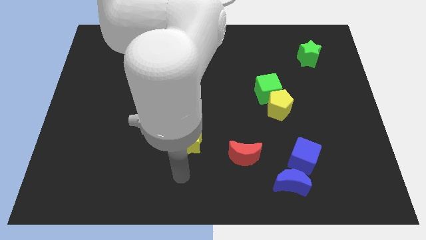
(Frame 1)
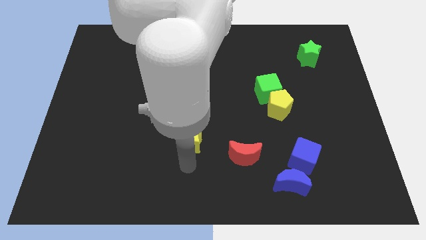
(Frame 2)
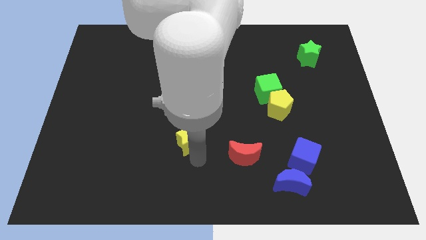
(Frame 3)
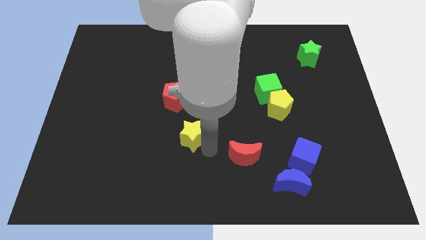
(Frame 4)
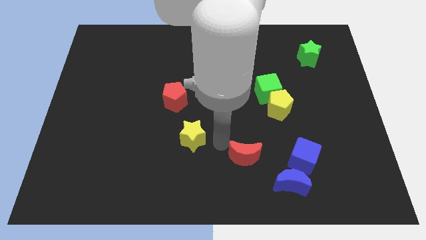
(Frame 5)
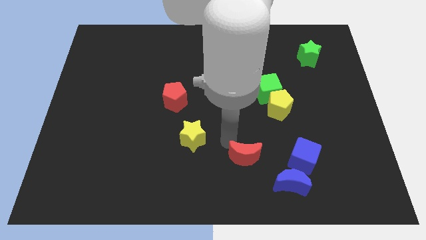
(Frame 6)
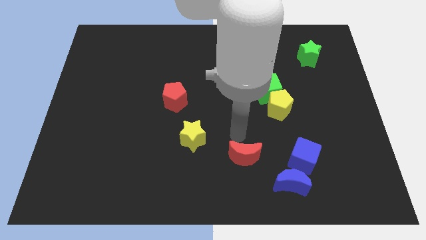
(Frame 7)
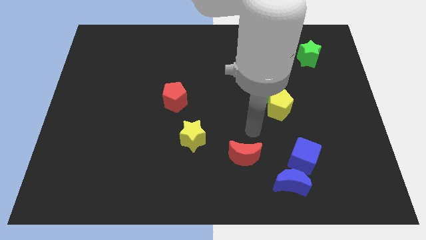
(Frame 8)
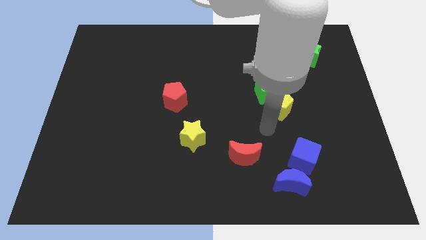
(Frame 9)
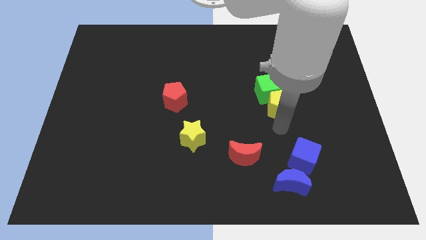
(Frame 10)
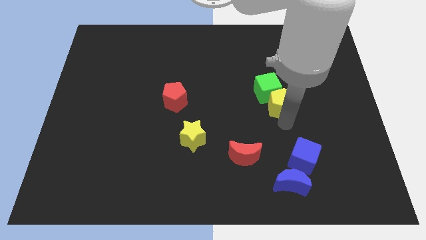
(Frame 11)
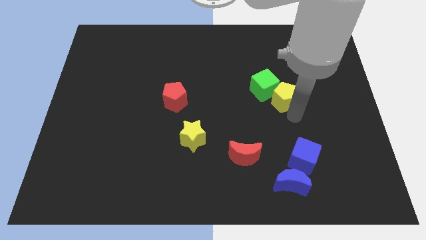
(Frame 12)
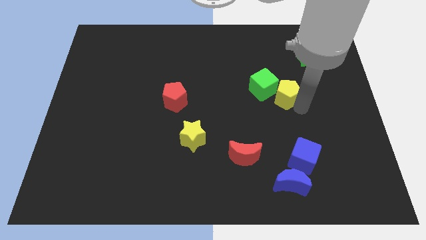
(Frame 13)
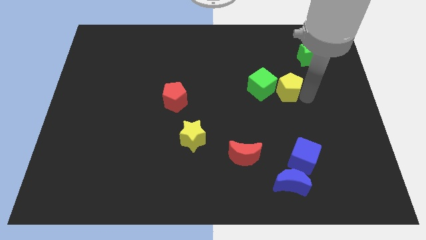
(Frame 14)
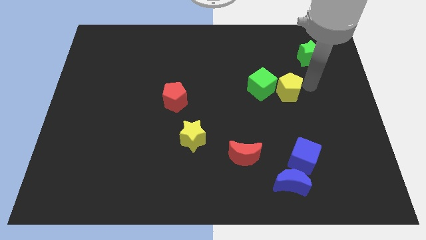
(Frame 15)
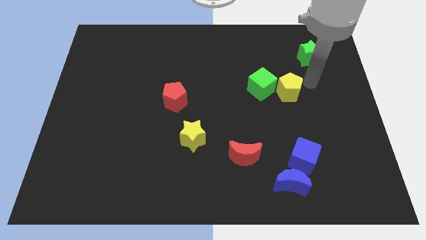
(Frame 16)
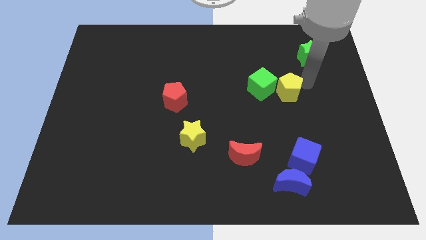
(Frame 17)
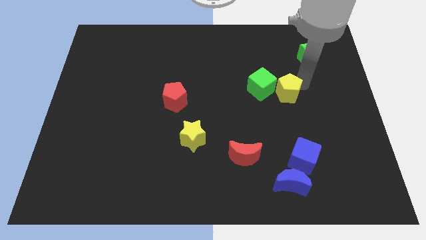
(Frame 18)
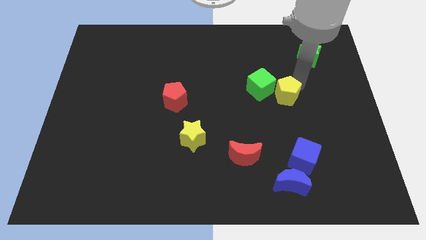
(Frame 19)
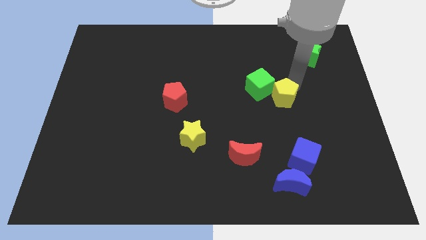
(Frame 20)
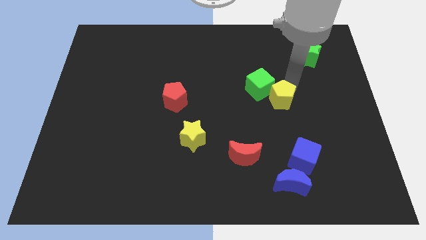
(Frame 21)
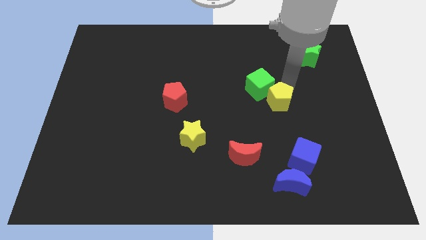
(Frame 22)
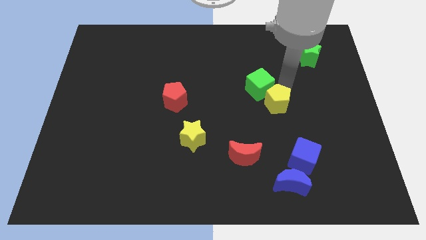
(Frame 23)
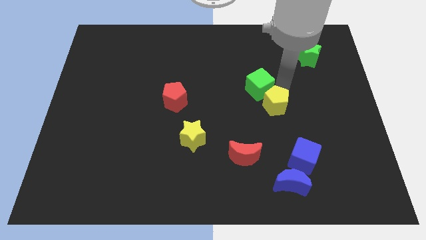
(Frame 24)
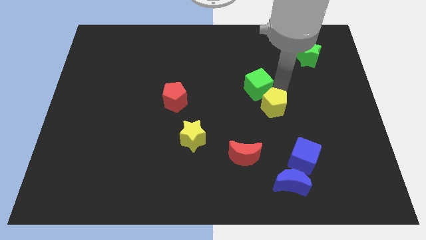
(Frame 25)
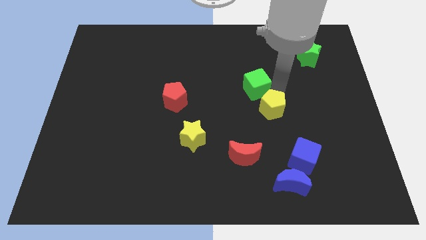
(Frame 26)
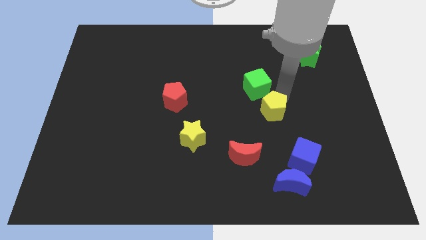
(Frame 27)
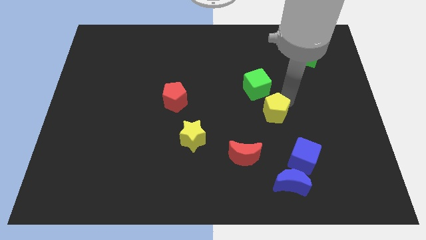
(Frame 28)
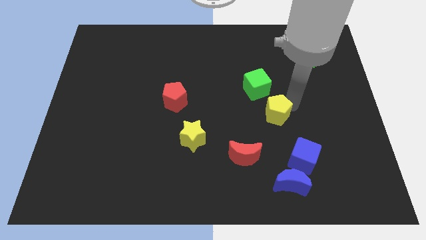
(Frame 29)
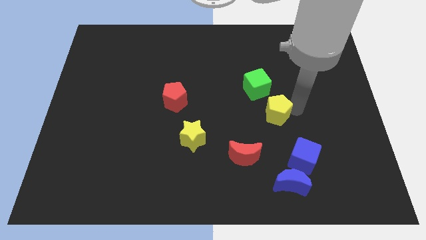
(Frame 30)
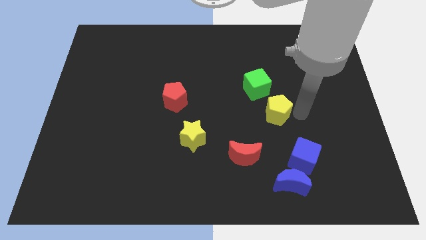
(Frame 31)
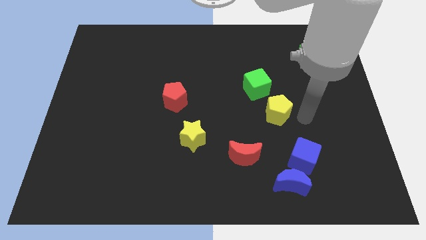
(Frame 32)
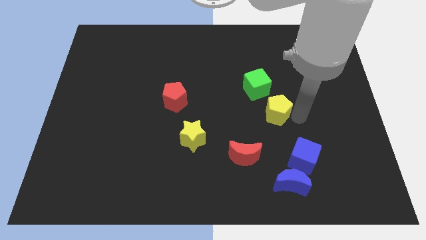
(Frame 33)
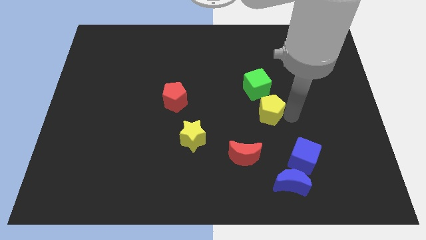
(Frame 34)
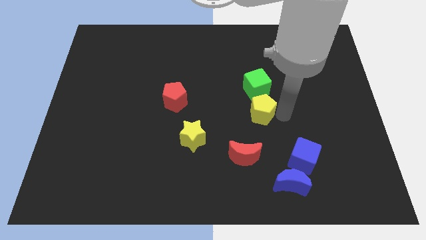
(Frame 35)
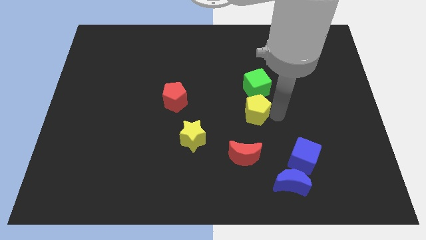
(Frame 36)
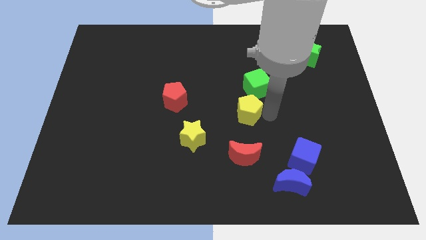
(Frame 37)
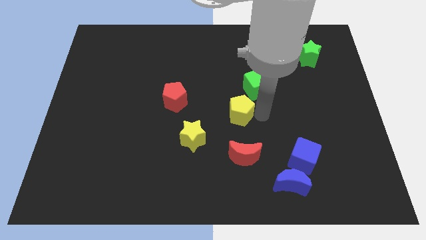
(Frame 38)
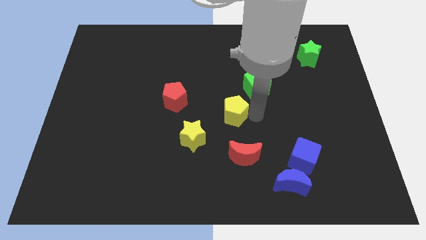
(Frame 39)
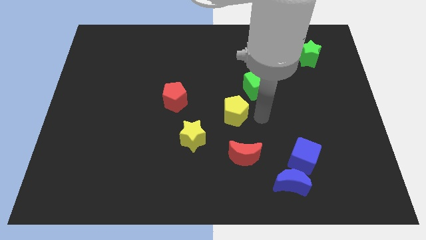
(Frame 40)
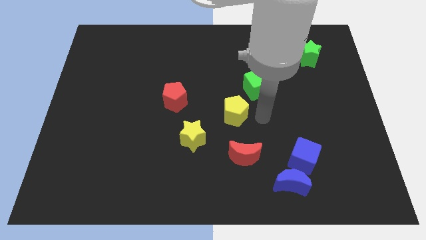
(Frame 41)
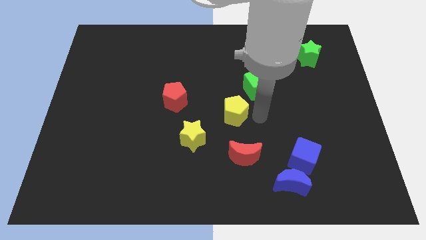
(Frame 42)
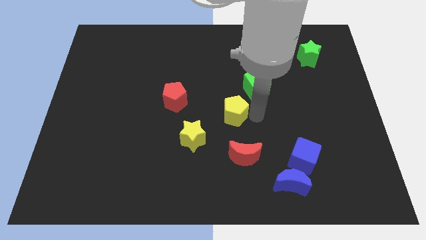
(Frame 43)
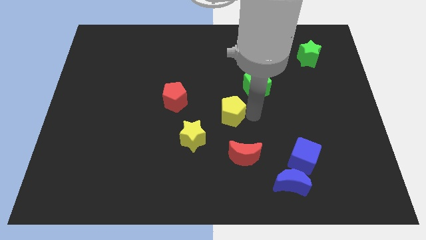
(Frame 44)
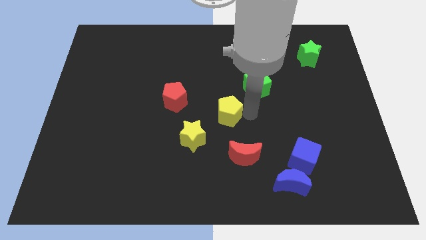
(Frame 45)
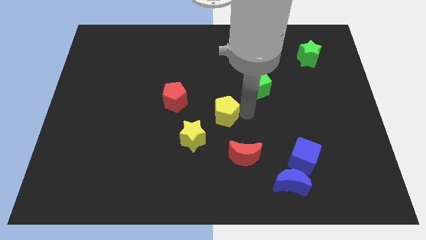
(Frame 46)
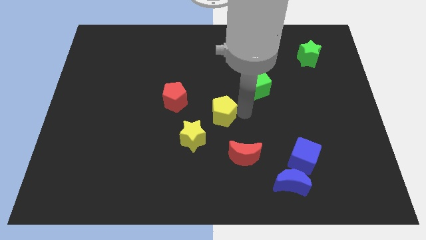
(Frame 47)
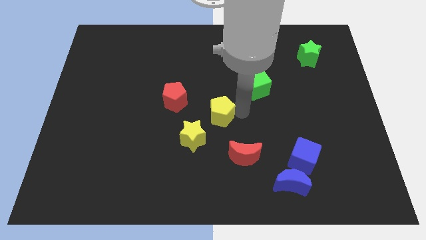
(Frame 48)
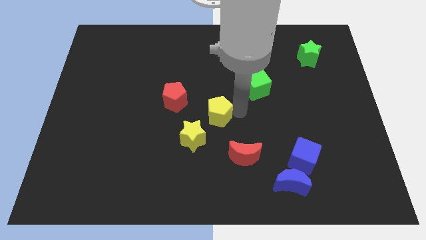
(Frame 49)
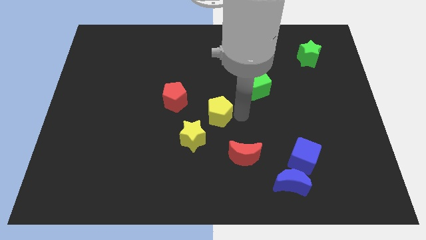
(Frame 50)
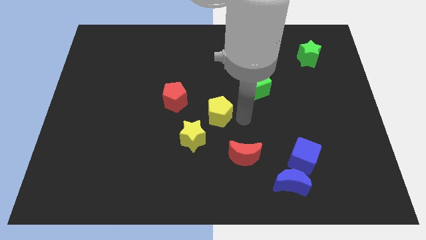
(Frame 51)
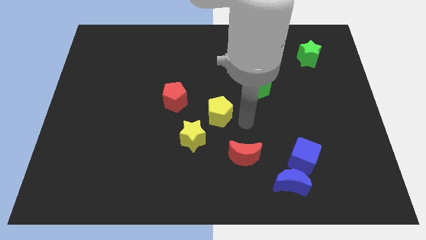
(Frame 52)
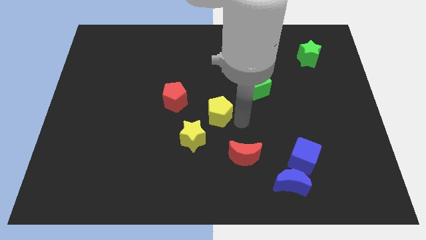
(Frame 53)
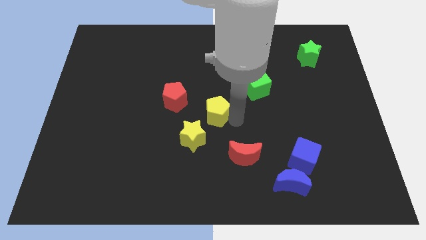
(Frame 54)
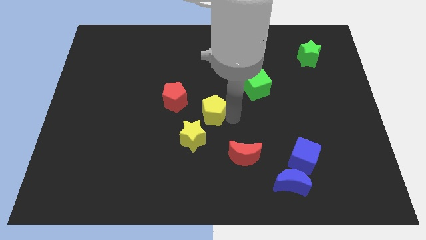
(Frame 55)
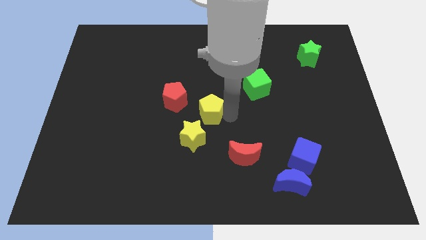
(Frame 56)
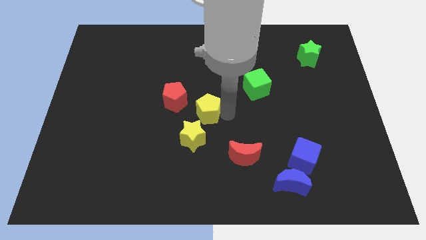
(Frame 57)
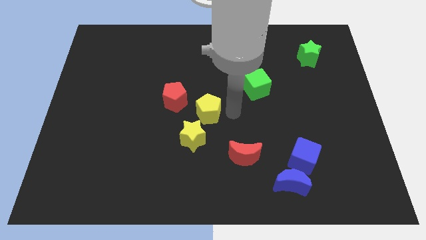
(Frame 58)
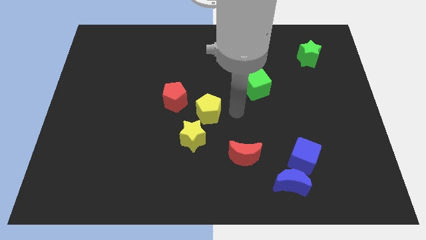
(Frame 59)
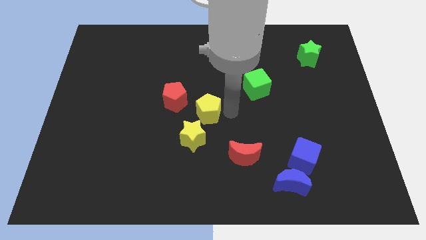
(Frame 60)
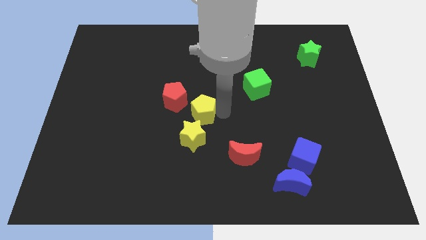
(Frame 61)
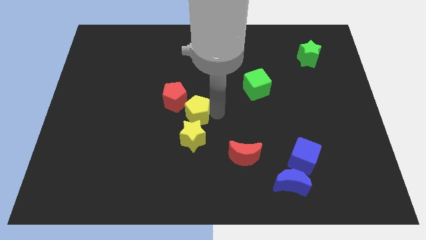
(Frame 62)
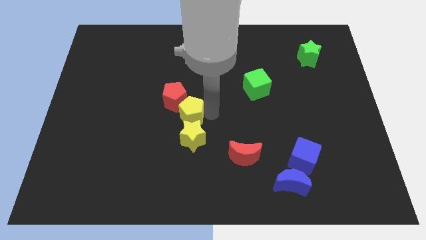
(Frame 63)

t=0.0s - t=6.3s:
slide the yellow pentagon left

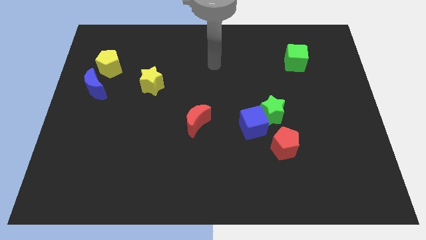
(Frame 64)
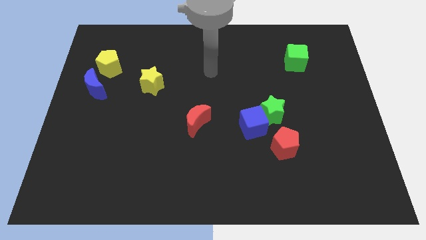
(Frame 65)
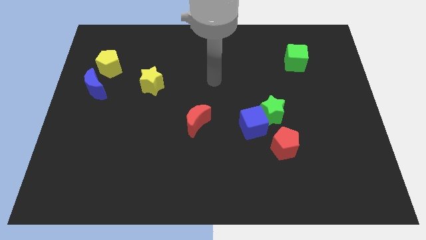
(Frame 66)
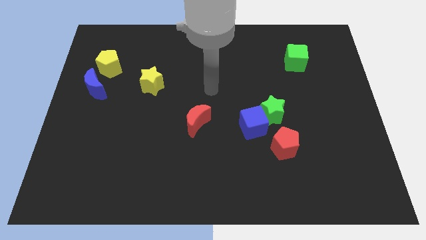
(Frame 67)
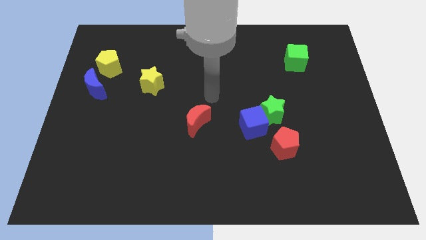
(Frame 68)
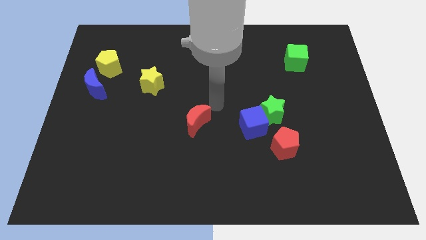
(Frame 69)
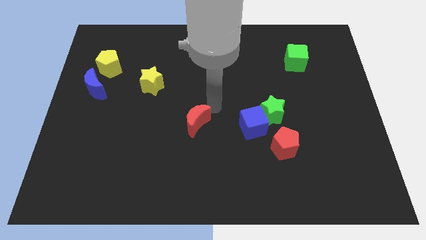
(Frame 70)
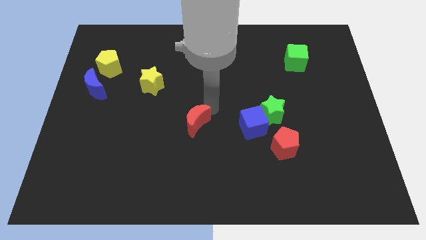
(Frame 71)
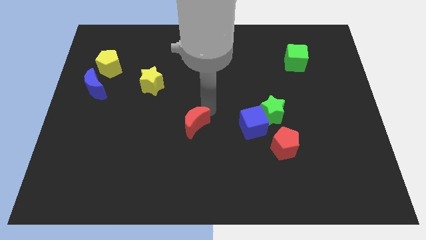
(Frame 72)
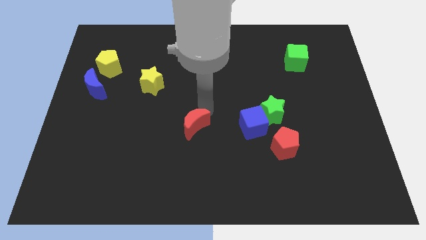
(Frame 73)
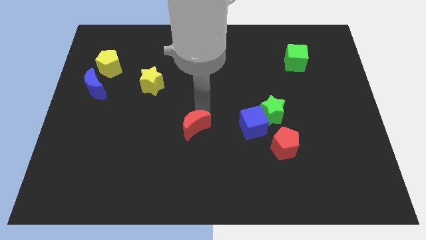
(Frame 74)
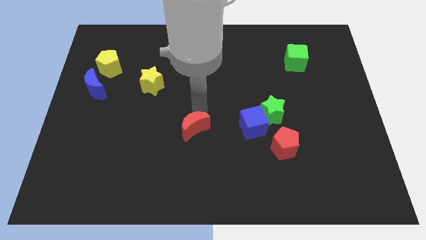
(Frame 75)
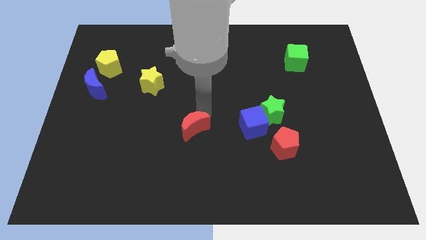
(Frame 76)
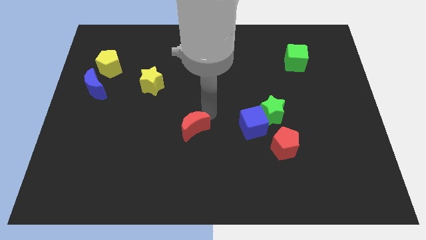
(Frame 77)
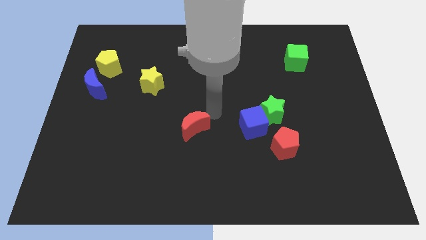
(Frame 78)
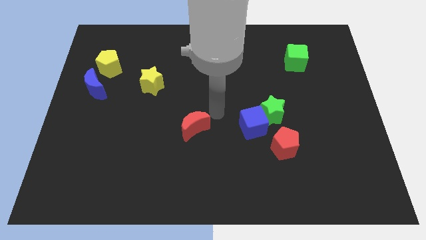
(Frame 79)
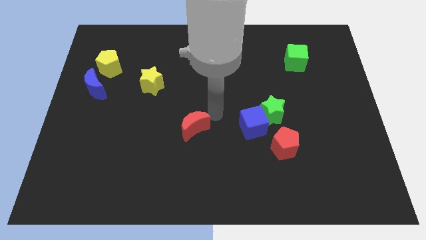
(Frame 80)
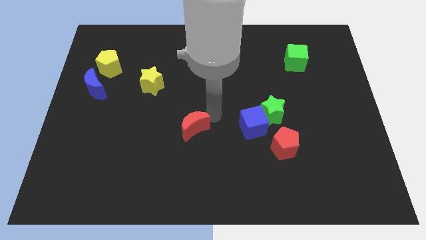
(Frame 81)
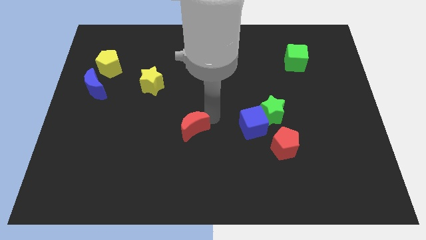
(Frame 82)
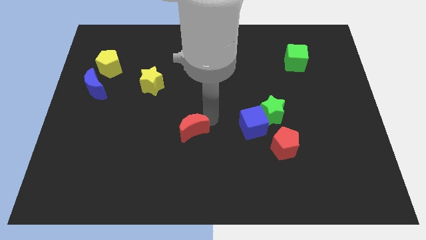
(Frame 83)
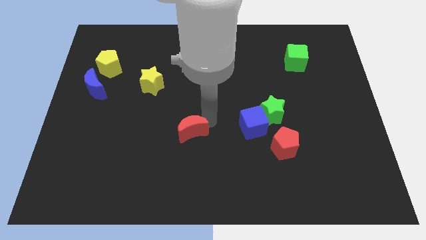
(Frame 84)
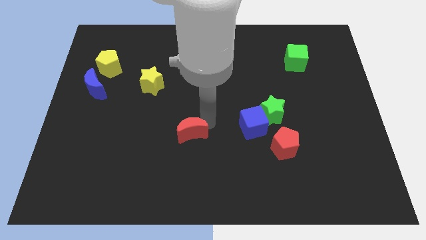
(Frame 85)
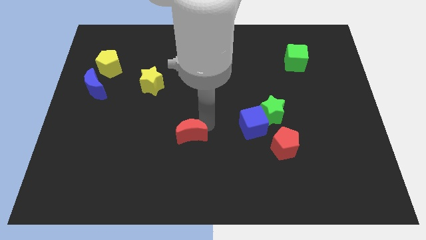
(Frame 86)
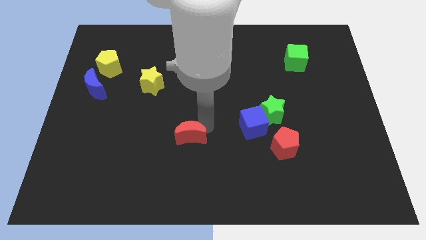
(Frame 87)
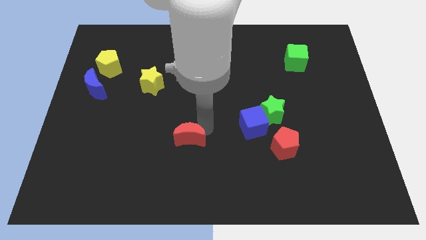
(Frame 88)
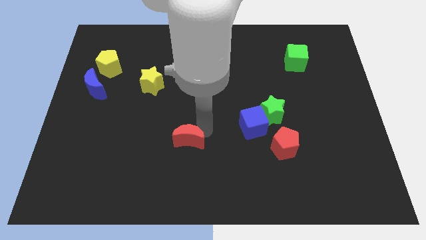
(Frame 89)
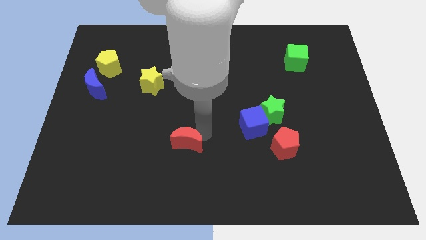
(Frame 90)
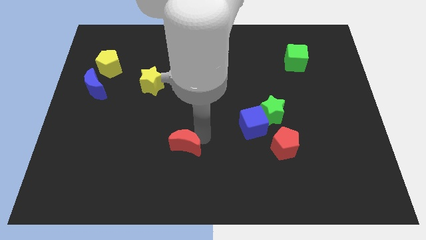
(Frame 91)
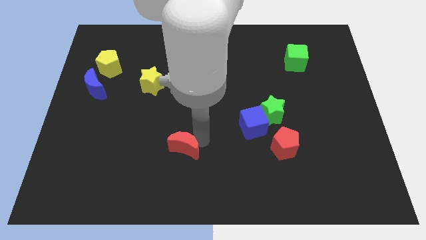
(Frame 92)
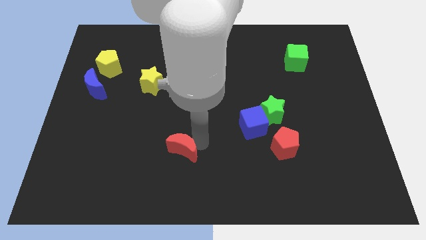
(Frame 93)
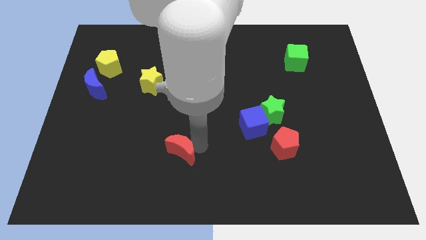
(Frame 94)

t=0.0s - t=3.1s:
slightly push the red moon downwards and to the left
